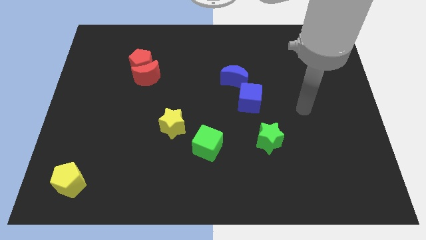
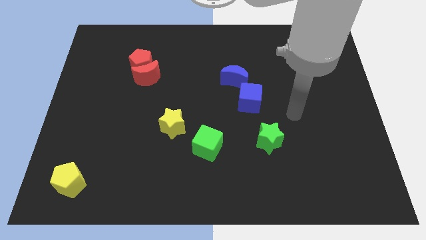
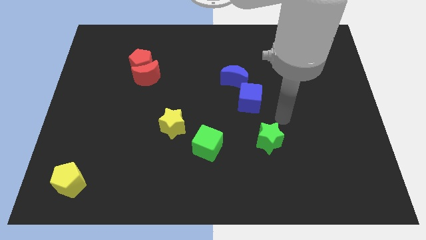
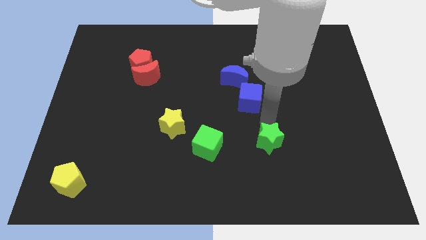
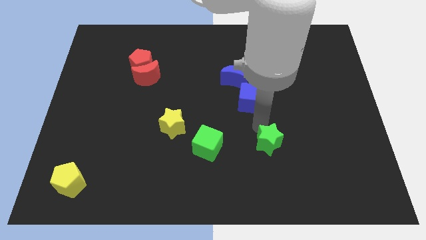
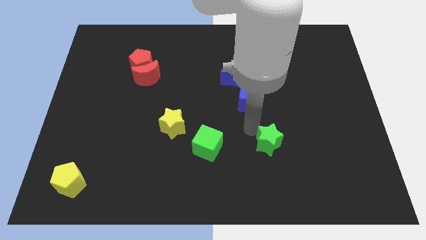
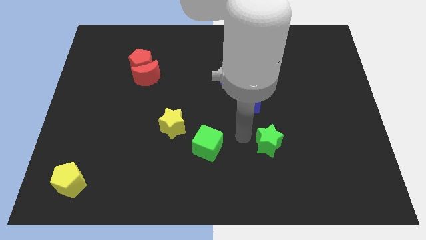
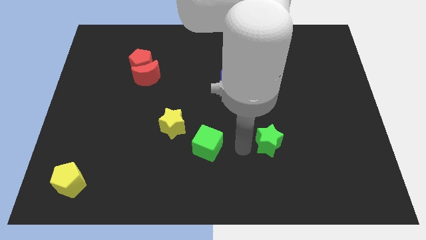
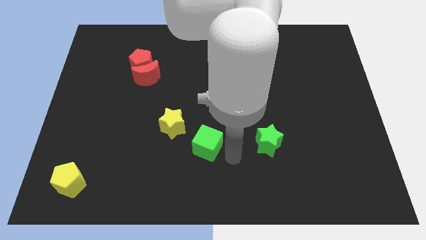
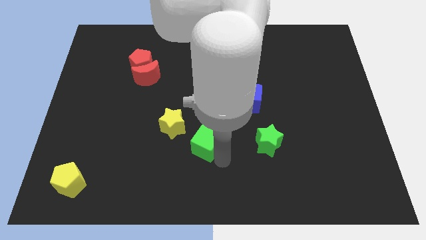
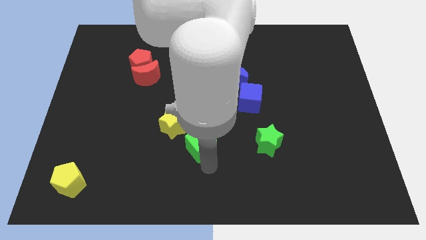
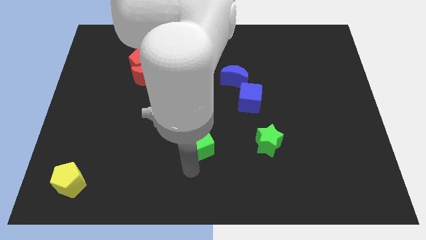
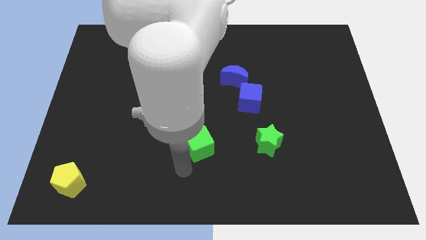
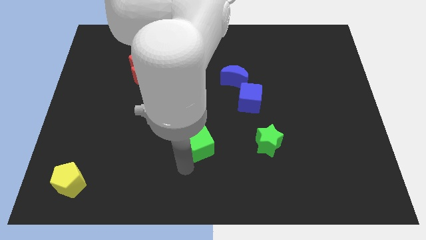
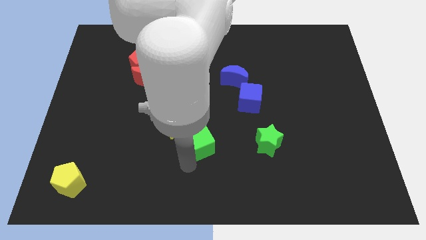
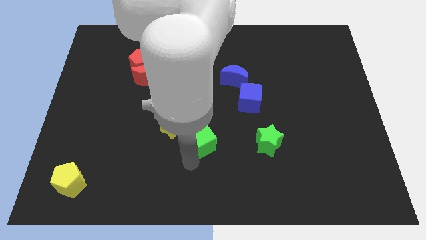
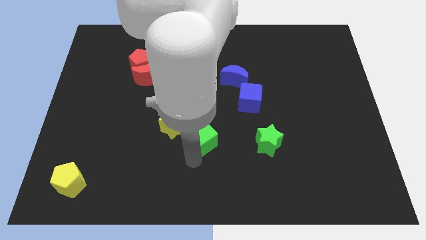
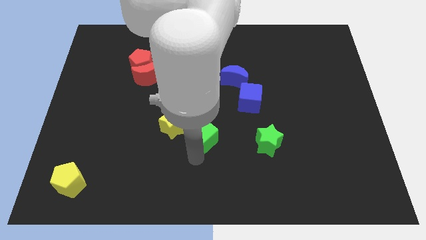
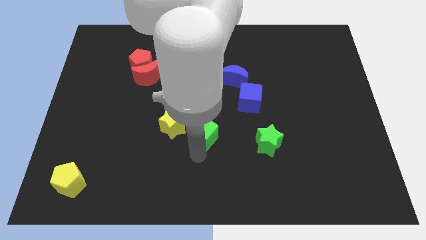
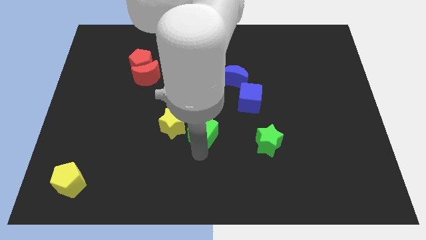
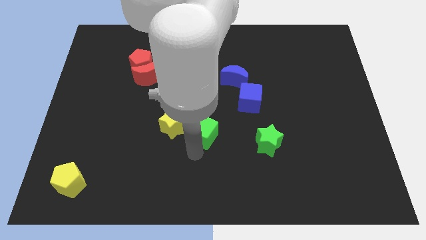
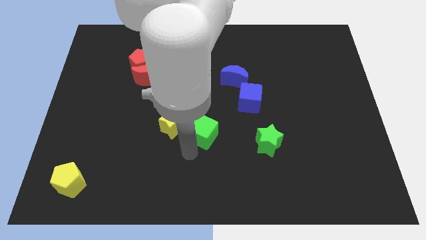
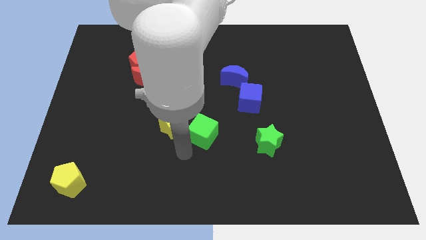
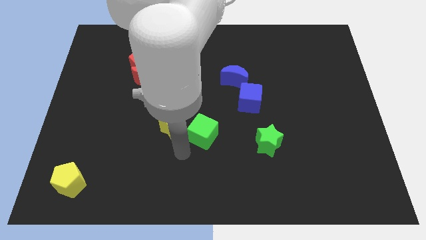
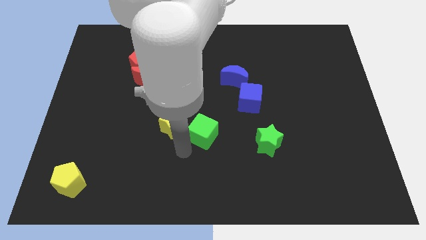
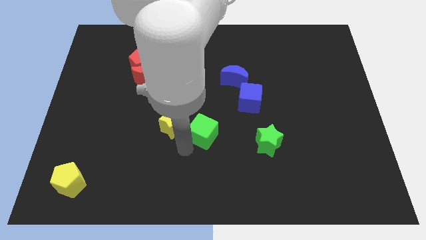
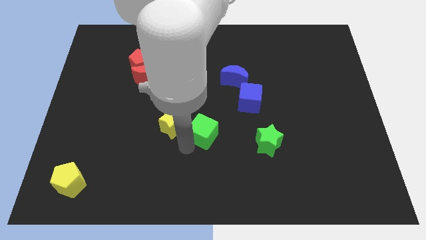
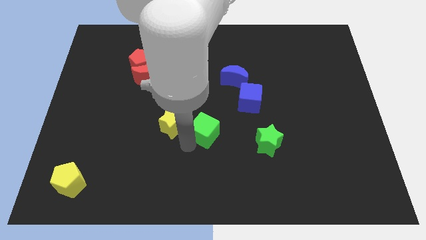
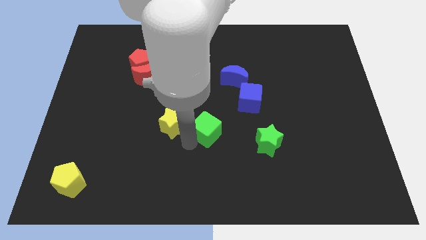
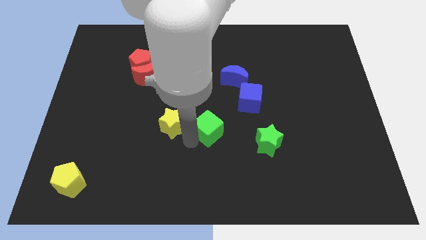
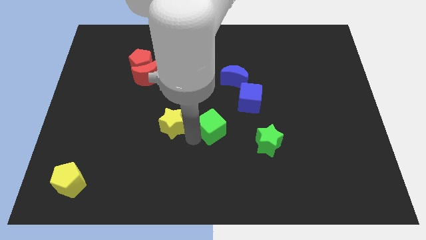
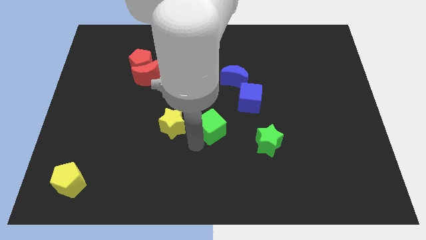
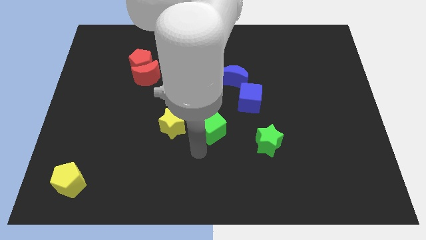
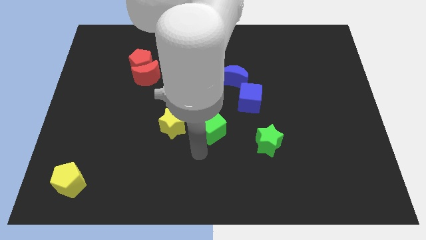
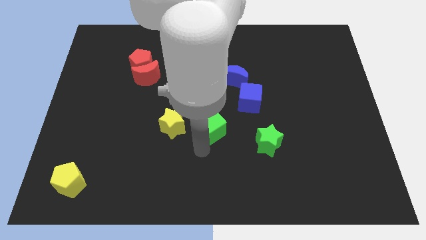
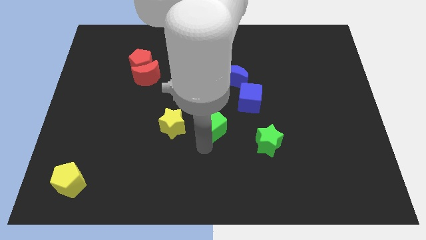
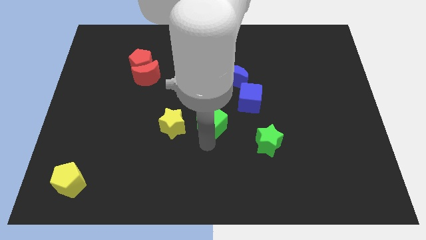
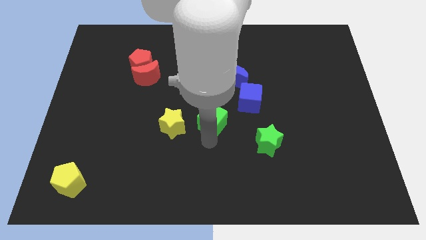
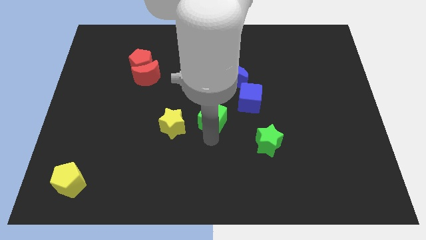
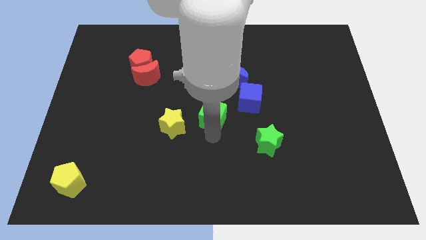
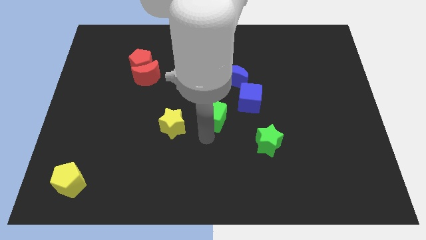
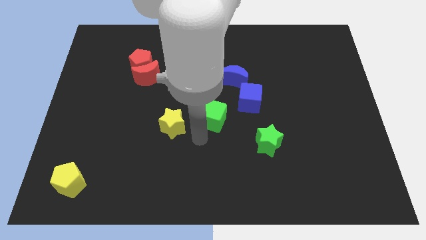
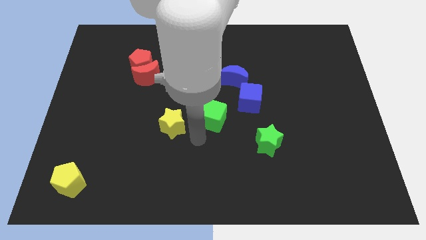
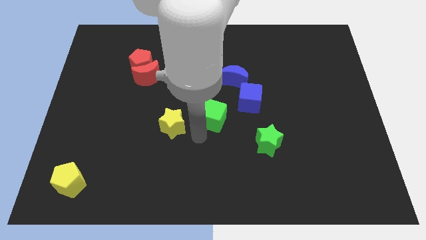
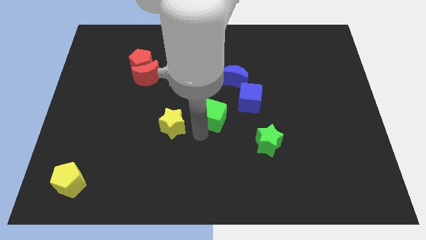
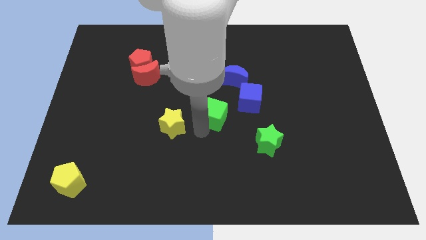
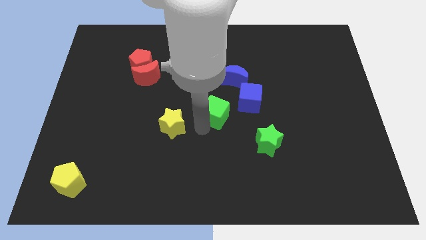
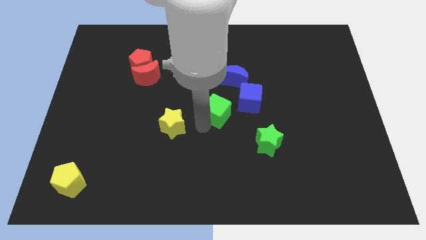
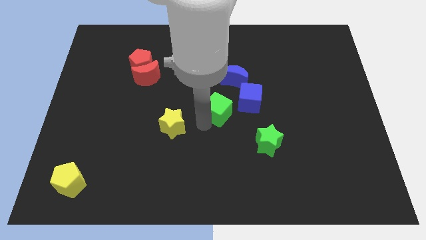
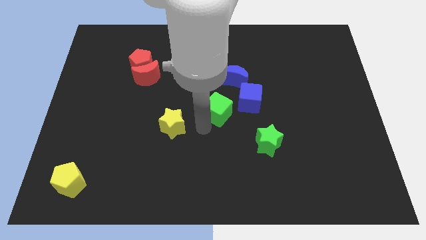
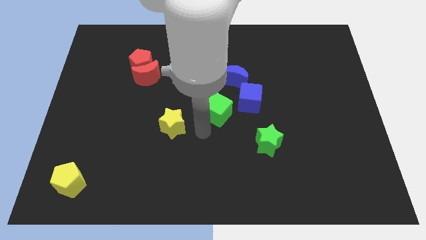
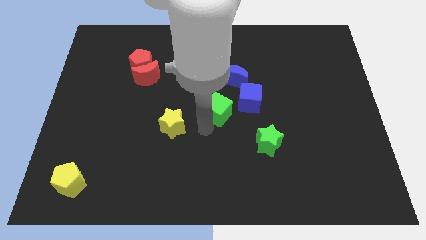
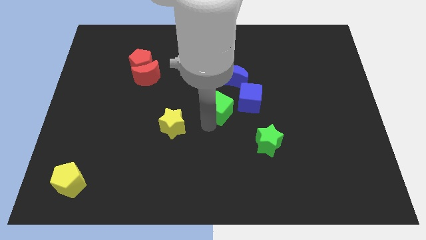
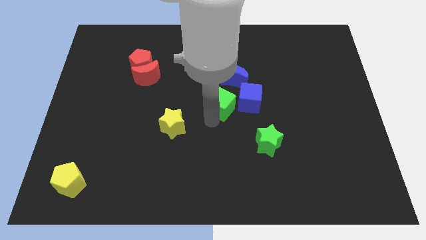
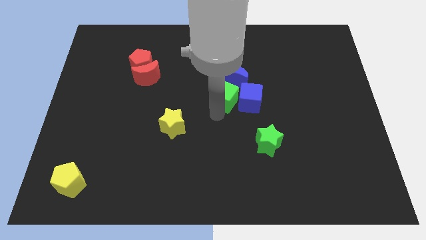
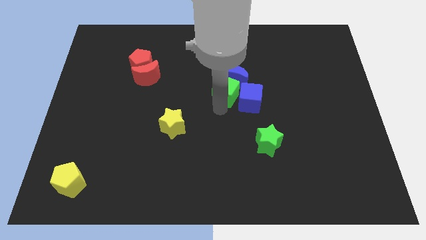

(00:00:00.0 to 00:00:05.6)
move the green cube next to the blue moon
